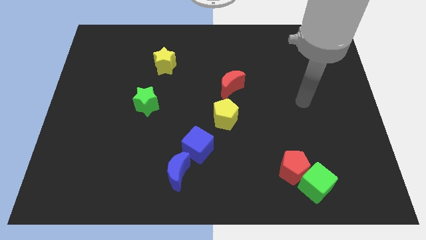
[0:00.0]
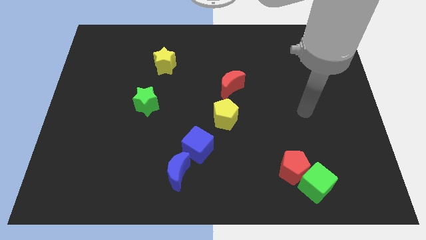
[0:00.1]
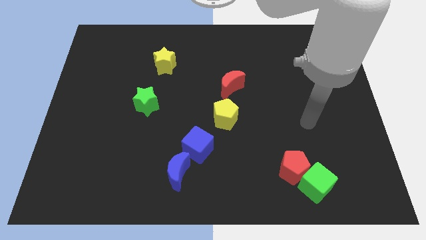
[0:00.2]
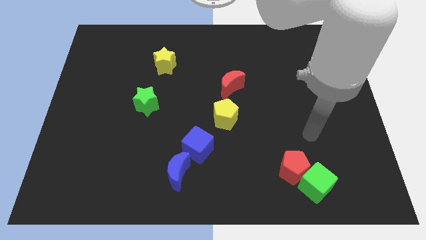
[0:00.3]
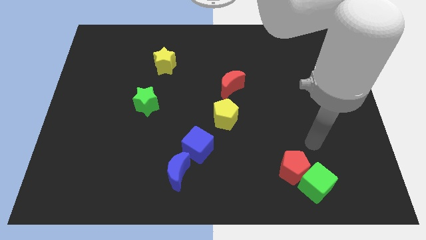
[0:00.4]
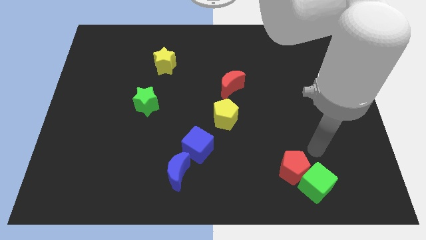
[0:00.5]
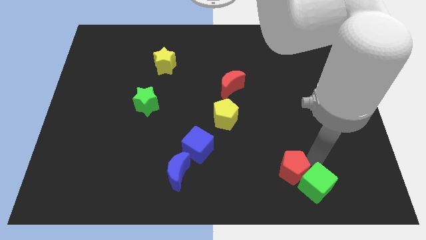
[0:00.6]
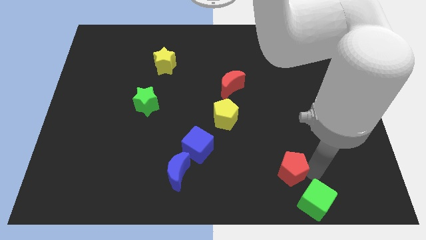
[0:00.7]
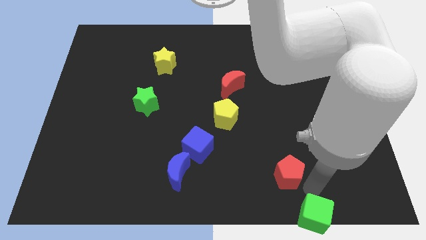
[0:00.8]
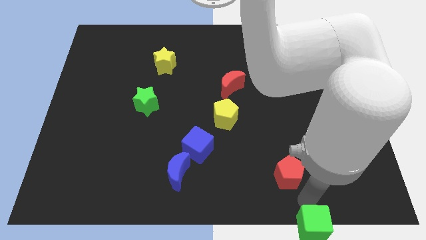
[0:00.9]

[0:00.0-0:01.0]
move the red pentagon away from the green cube

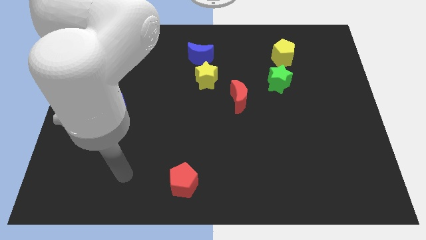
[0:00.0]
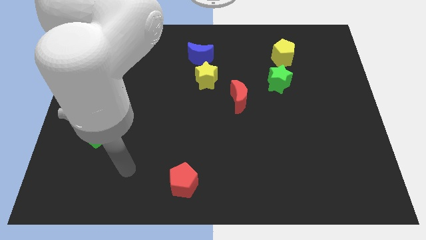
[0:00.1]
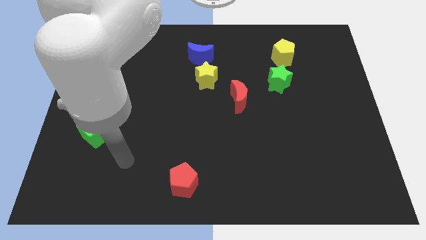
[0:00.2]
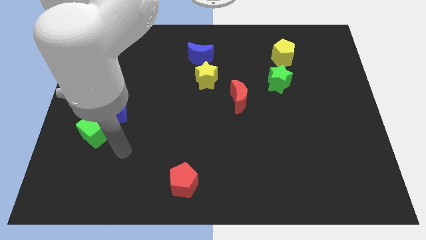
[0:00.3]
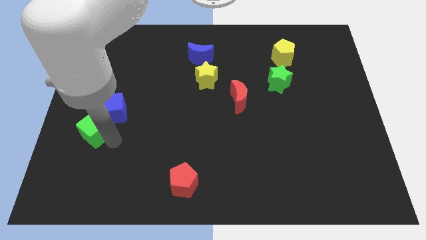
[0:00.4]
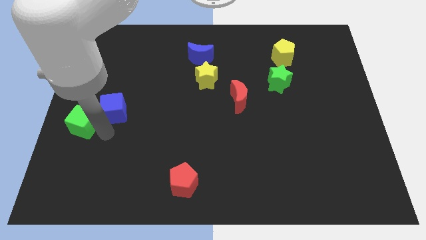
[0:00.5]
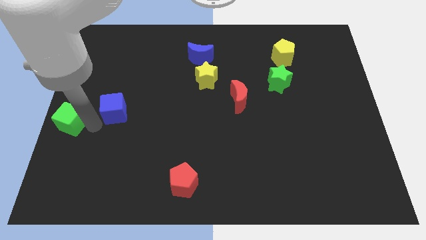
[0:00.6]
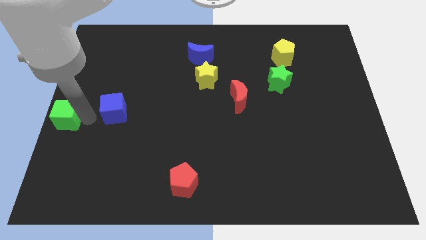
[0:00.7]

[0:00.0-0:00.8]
move the blue cube away from the green cube

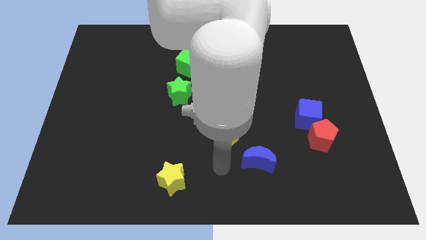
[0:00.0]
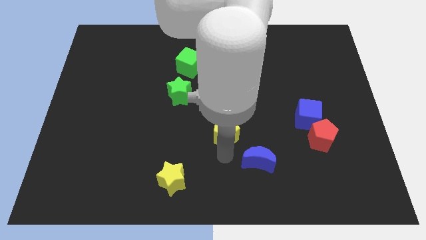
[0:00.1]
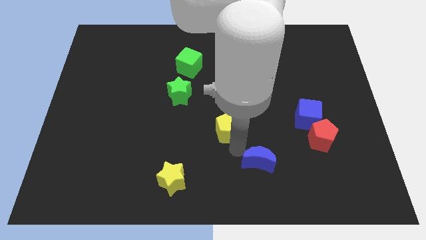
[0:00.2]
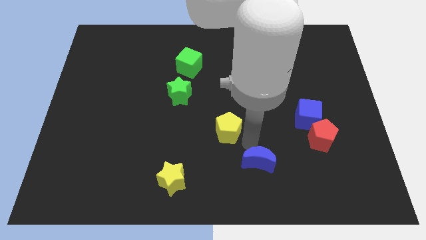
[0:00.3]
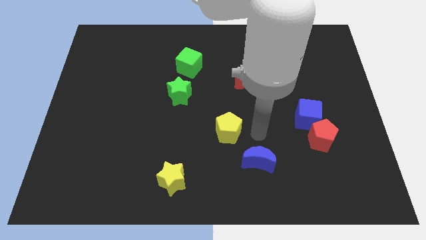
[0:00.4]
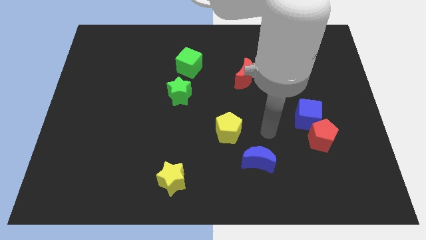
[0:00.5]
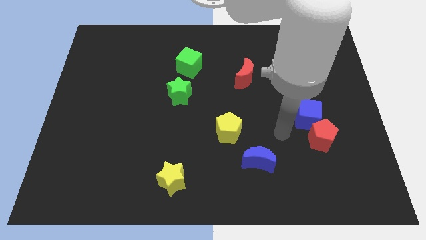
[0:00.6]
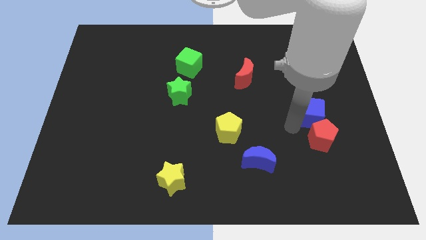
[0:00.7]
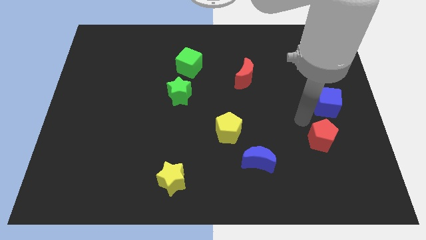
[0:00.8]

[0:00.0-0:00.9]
move the red pentagon away from the blue cube

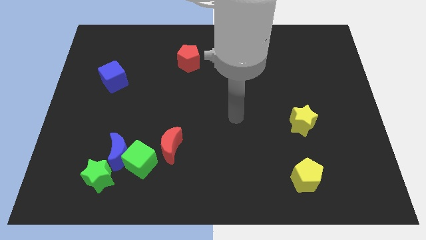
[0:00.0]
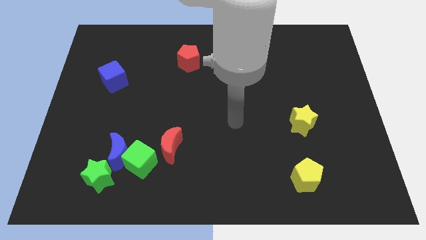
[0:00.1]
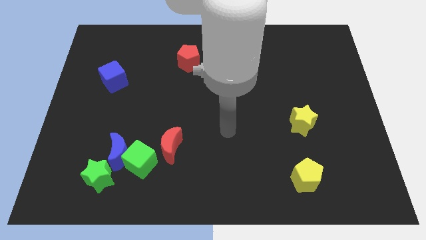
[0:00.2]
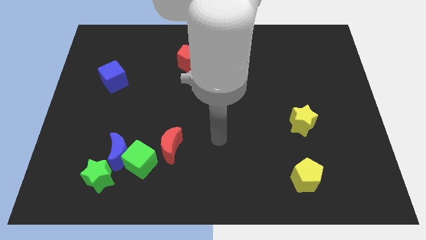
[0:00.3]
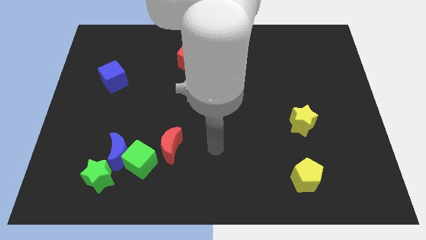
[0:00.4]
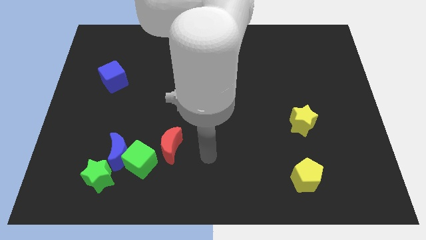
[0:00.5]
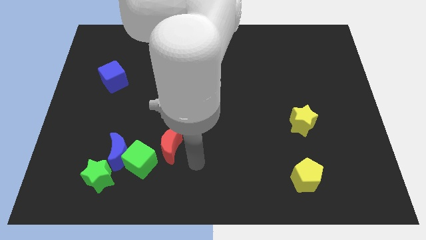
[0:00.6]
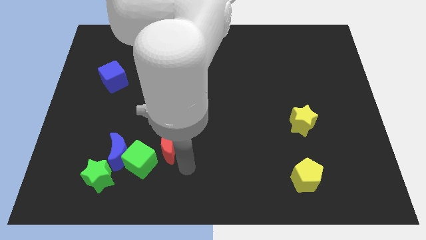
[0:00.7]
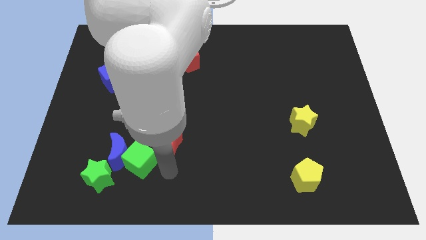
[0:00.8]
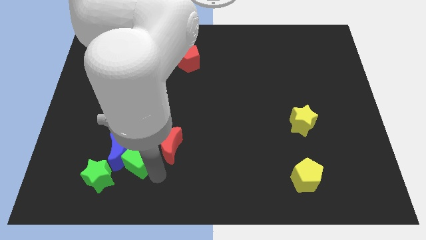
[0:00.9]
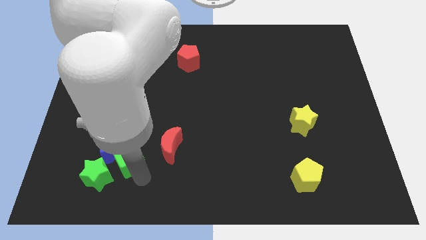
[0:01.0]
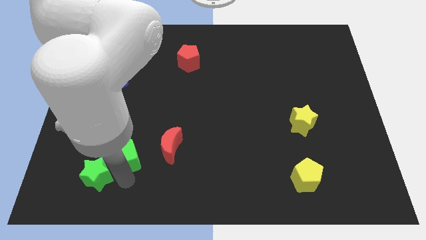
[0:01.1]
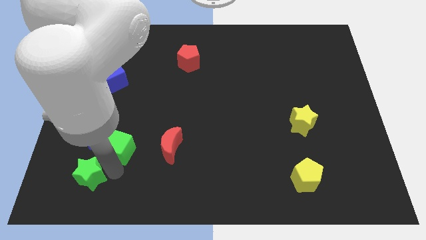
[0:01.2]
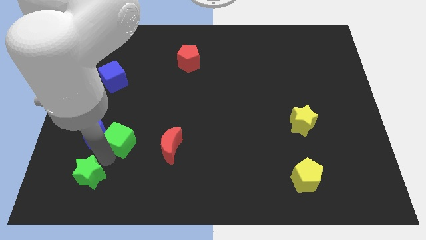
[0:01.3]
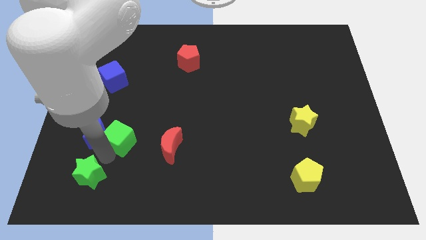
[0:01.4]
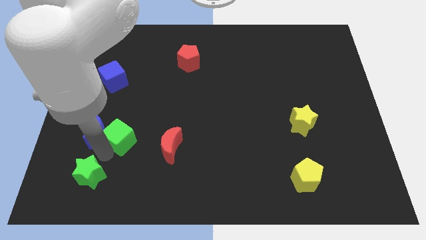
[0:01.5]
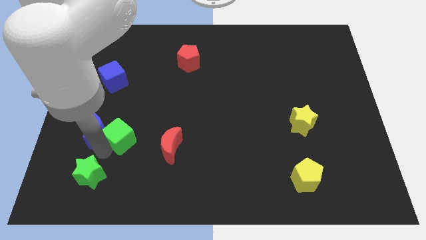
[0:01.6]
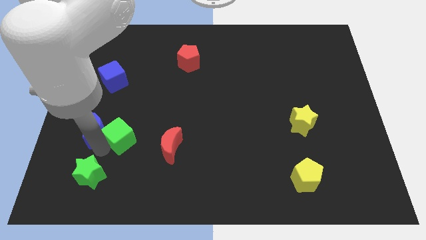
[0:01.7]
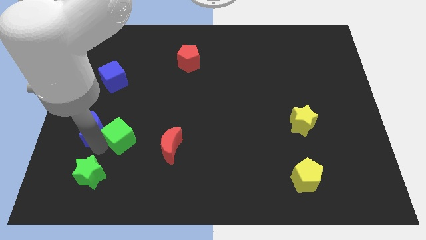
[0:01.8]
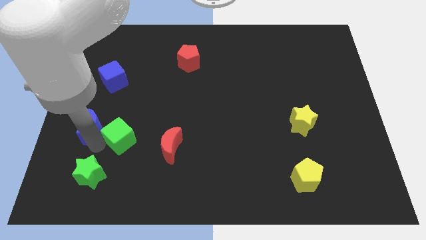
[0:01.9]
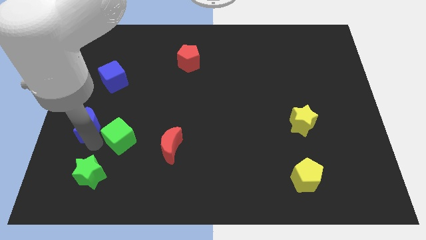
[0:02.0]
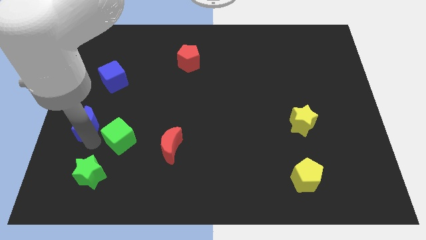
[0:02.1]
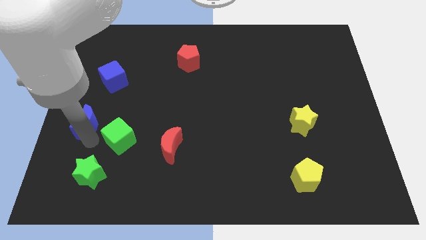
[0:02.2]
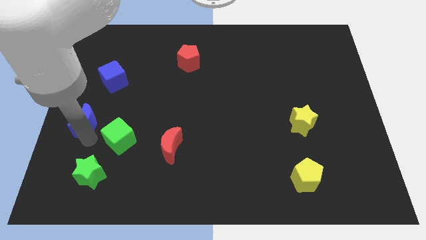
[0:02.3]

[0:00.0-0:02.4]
move the blue moon away from the green cube and green star

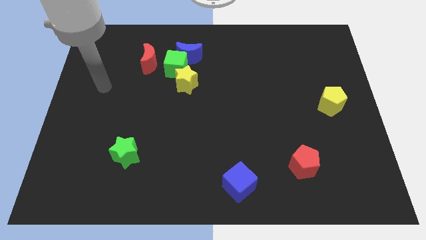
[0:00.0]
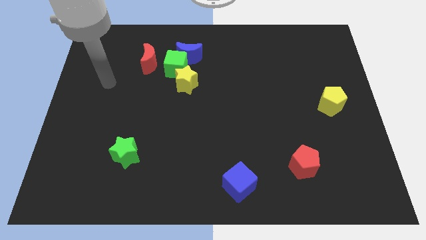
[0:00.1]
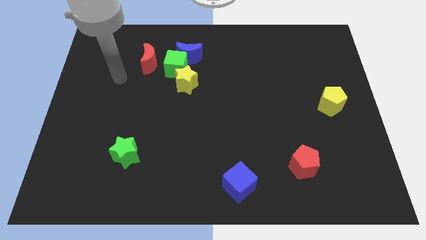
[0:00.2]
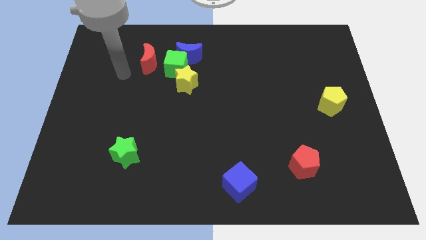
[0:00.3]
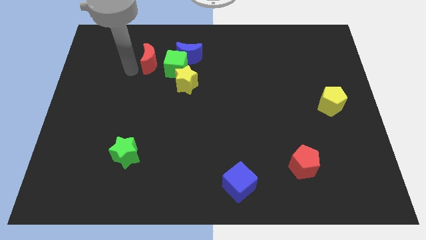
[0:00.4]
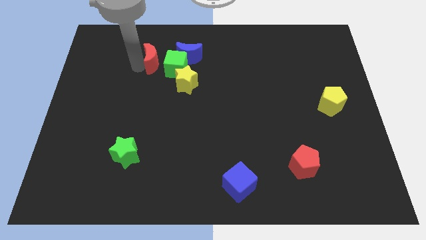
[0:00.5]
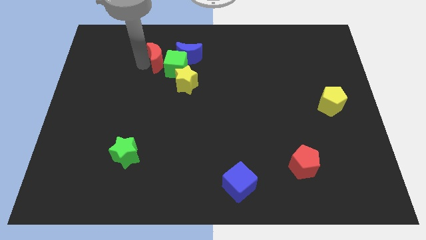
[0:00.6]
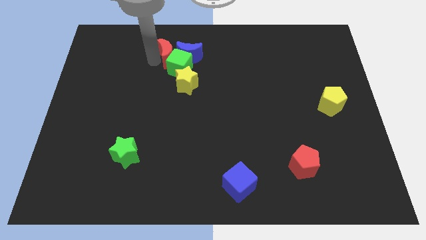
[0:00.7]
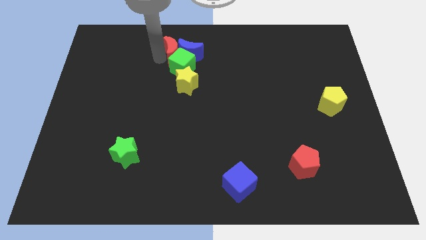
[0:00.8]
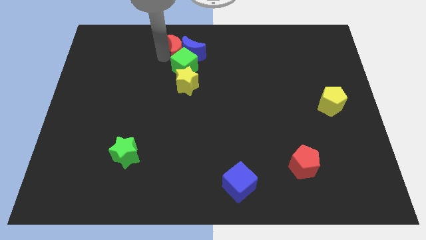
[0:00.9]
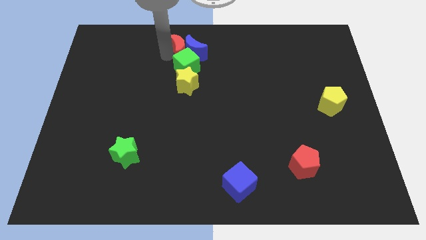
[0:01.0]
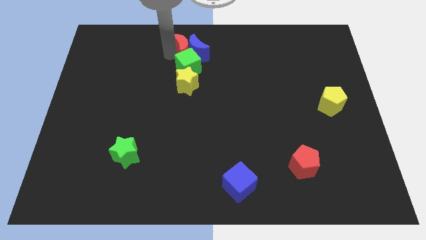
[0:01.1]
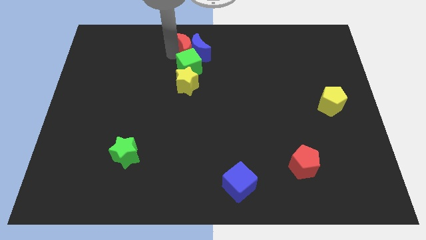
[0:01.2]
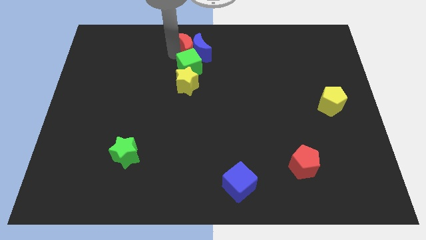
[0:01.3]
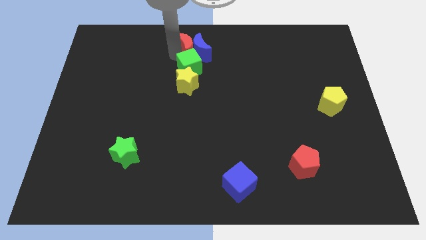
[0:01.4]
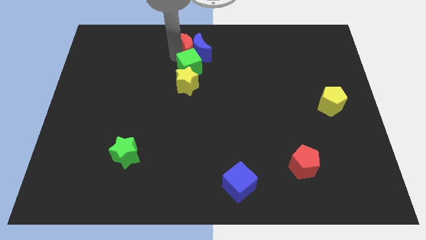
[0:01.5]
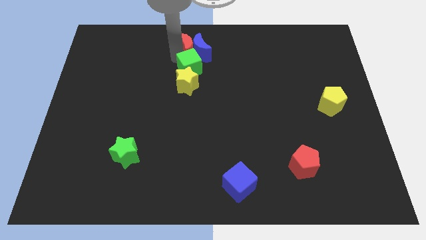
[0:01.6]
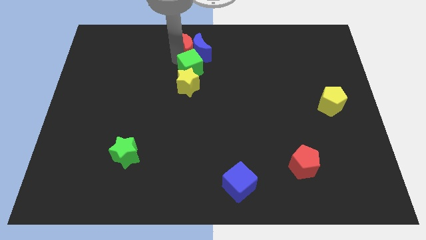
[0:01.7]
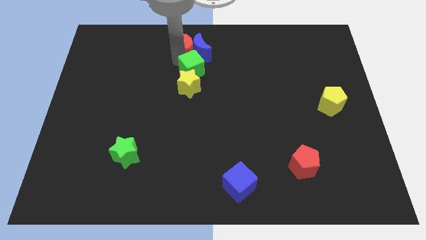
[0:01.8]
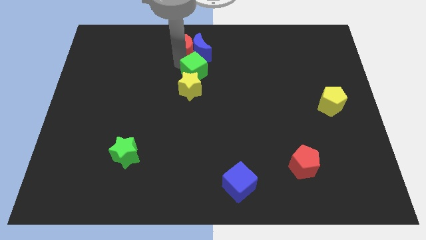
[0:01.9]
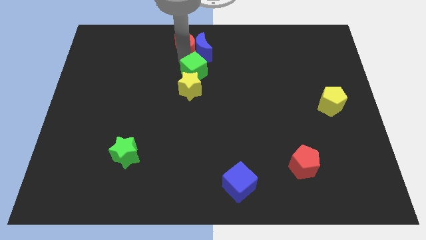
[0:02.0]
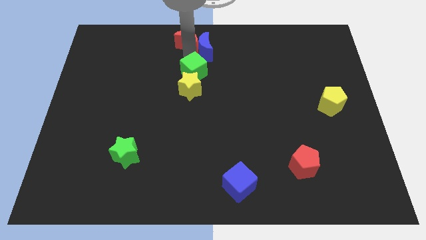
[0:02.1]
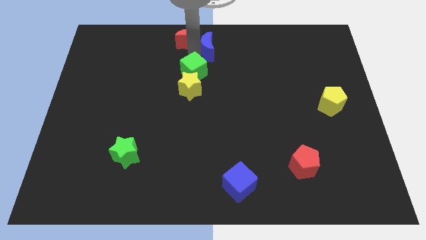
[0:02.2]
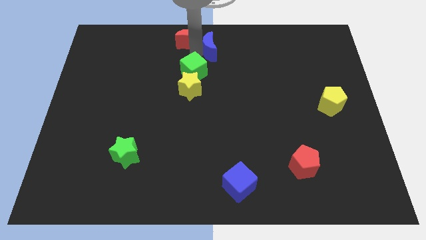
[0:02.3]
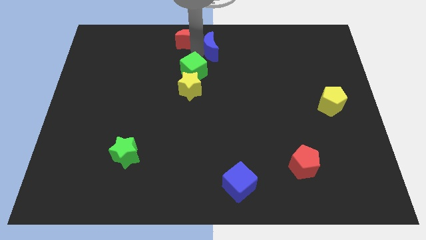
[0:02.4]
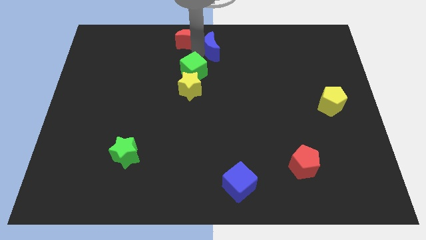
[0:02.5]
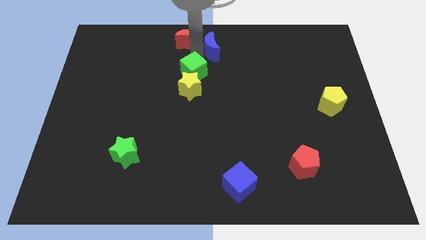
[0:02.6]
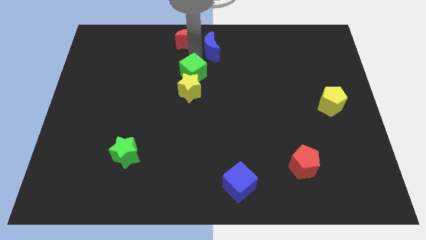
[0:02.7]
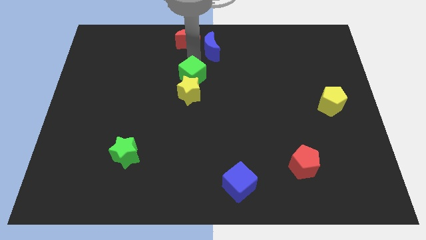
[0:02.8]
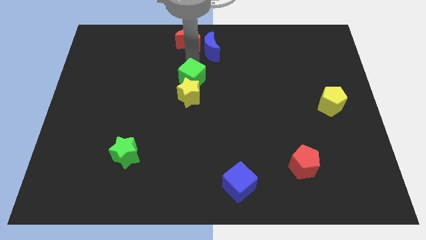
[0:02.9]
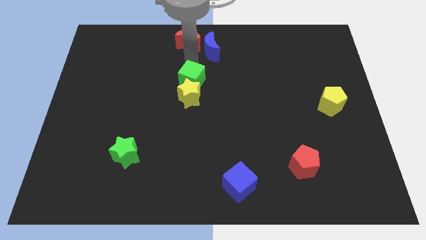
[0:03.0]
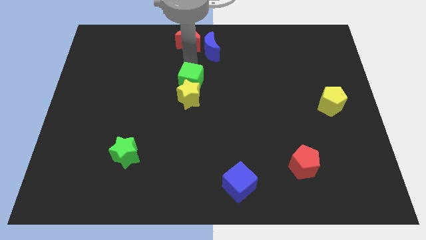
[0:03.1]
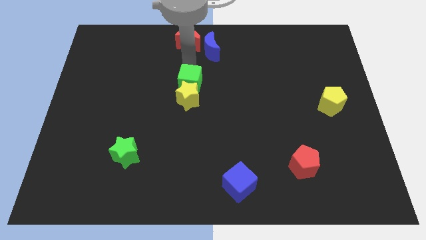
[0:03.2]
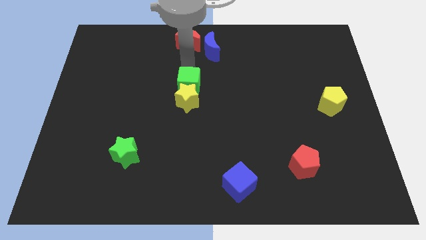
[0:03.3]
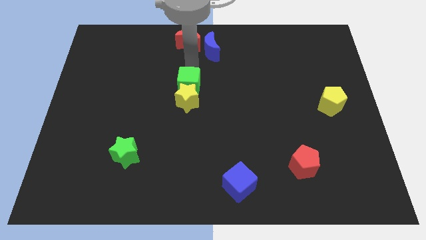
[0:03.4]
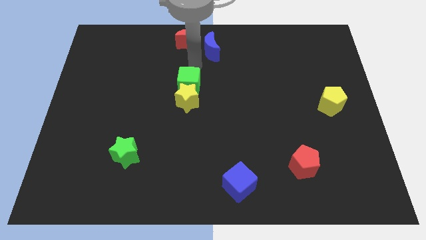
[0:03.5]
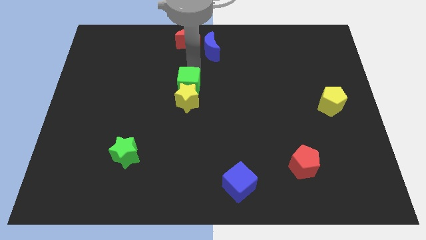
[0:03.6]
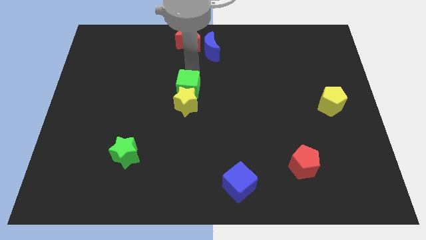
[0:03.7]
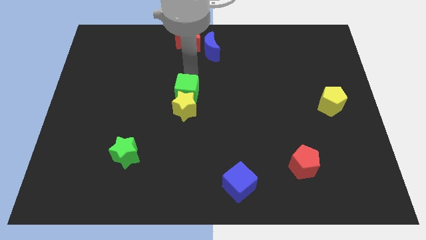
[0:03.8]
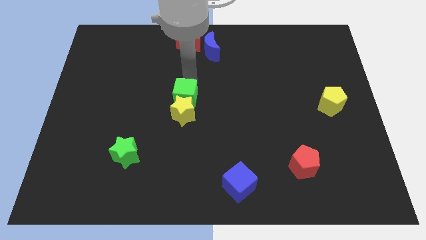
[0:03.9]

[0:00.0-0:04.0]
move the green cube away from the group of blocks

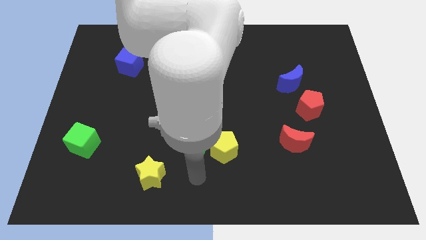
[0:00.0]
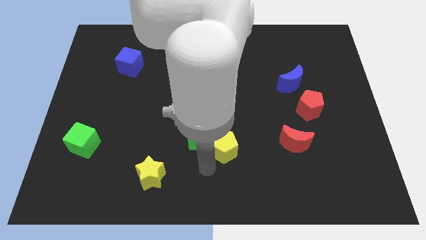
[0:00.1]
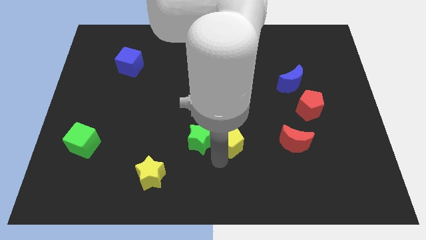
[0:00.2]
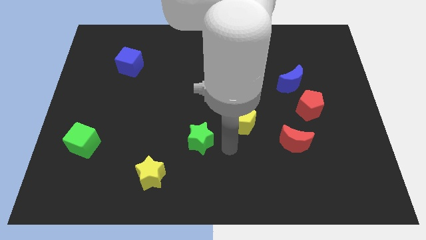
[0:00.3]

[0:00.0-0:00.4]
separate the green star from the yellow pentagon
